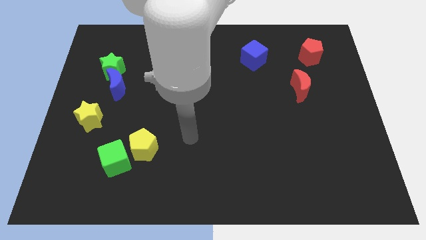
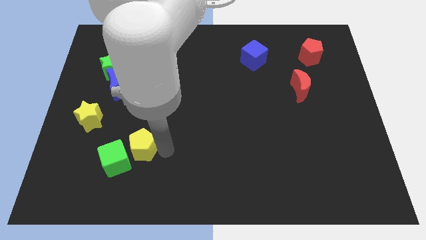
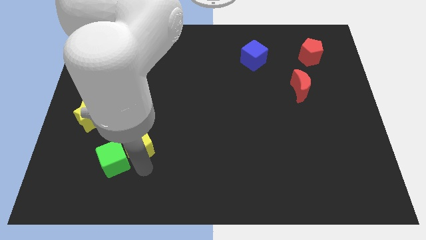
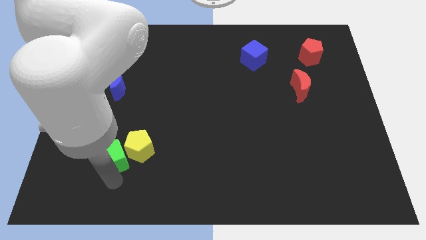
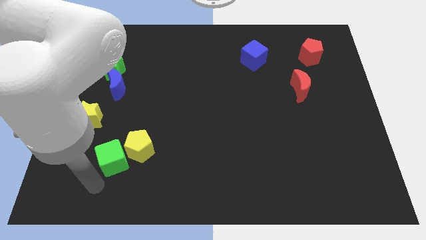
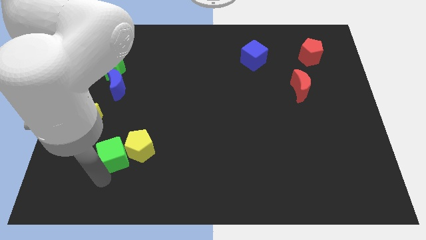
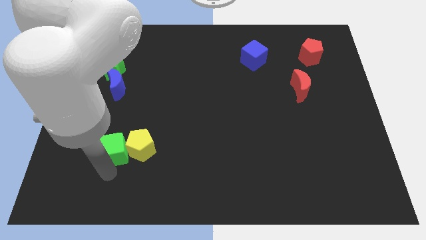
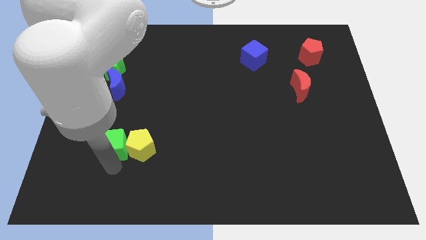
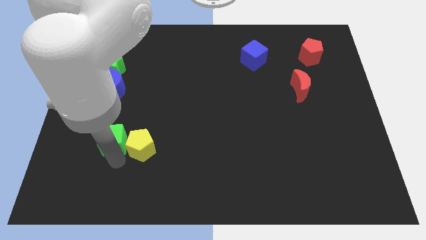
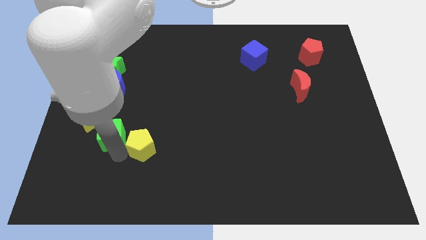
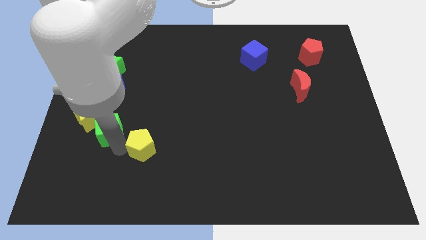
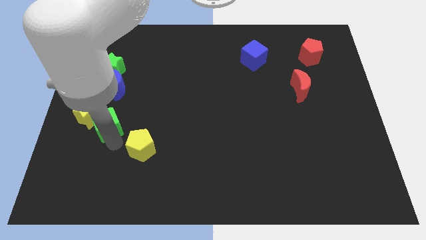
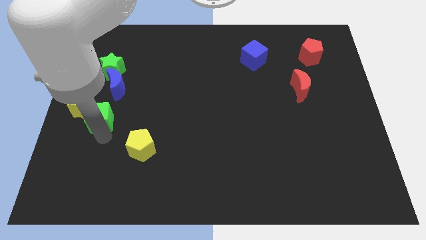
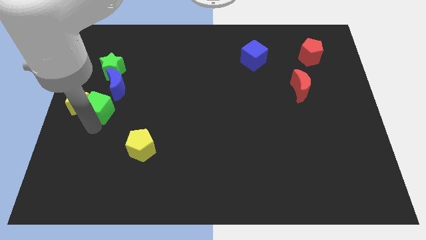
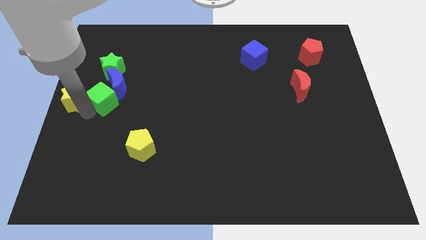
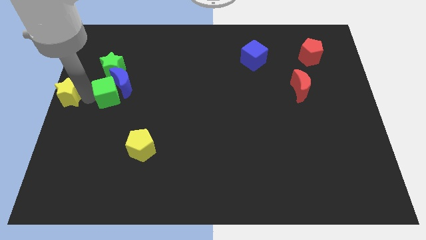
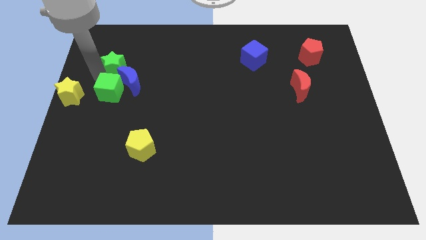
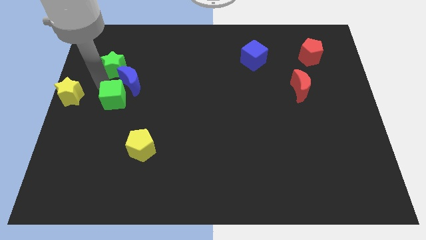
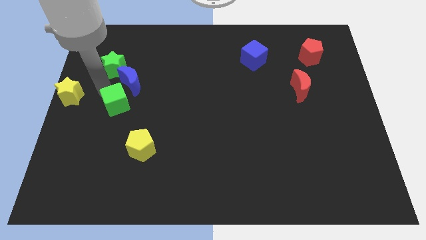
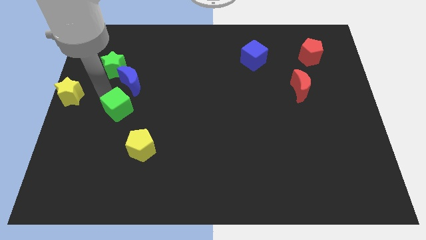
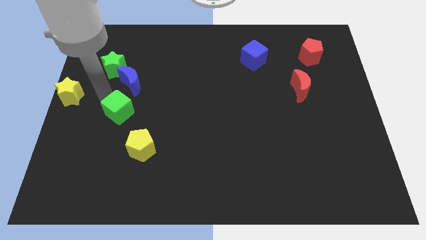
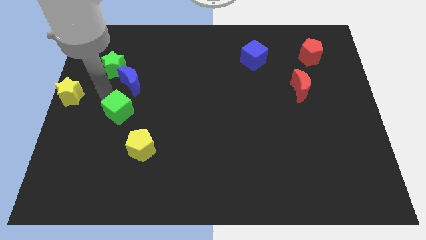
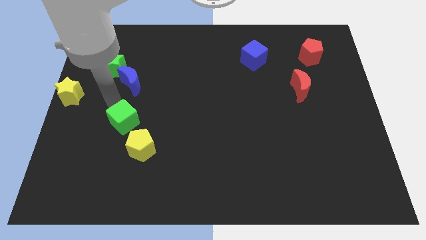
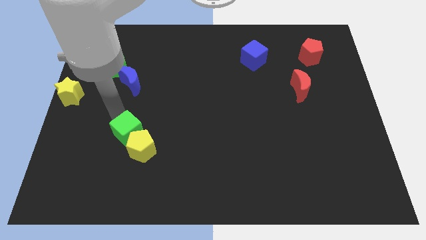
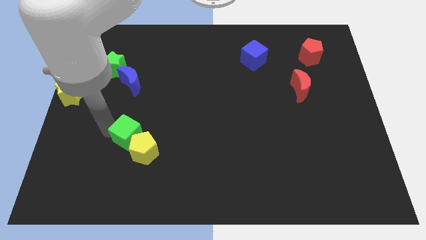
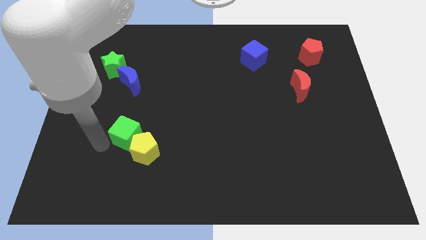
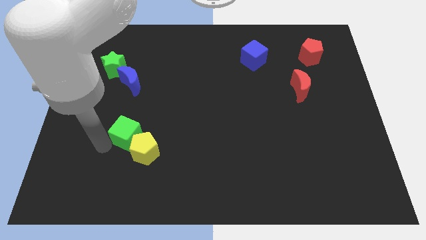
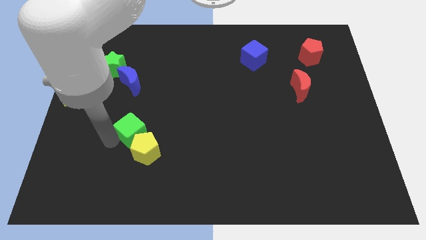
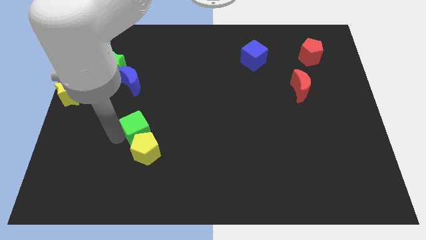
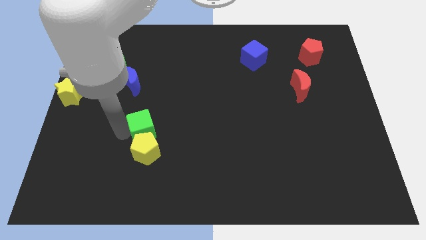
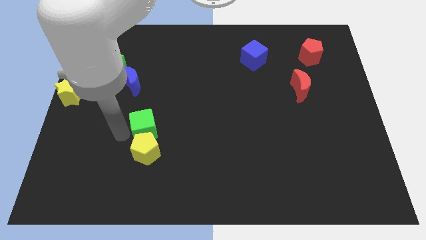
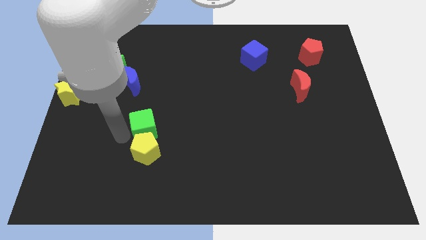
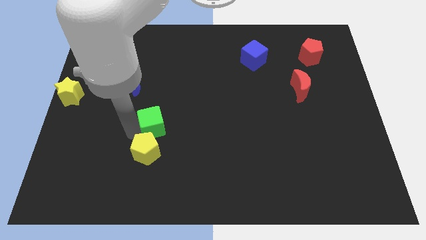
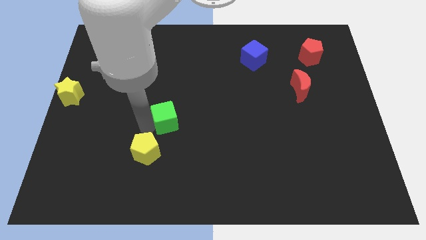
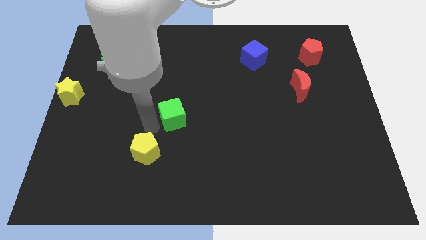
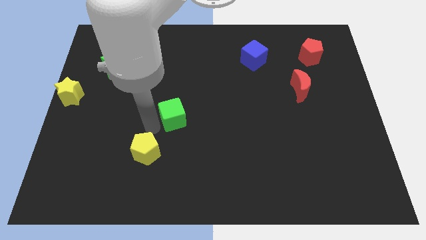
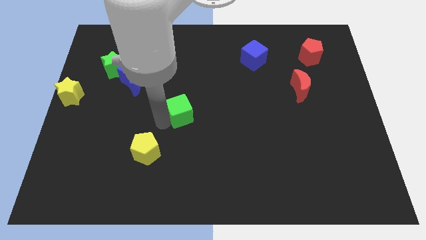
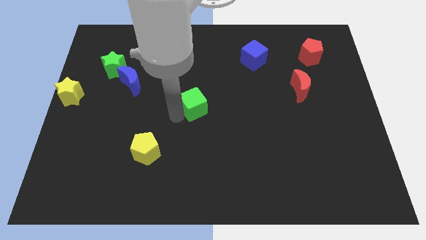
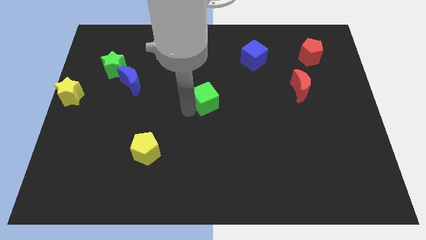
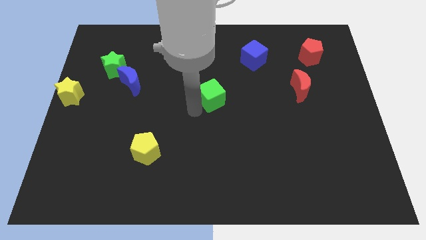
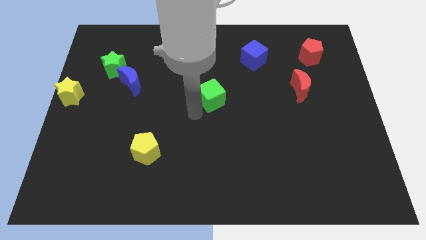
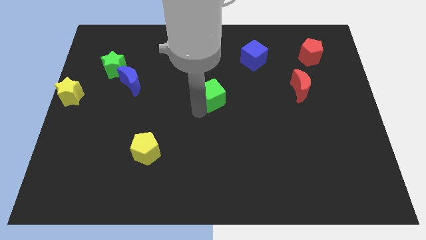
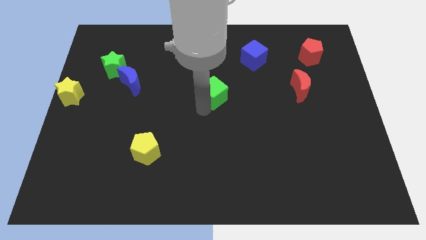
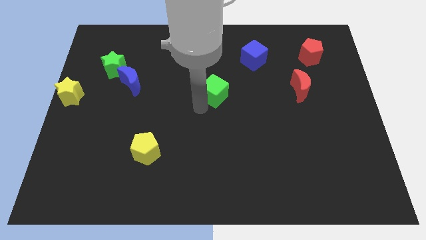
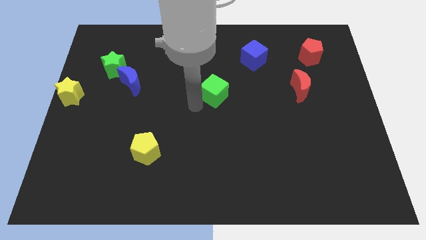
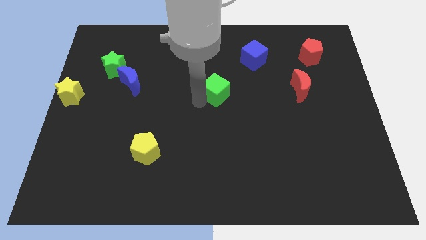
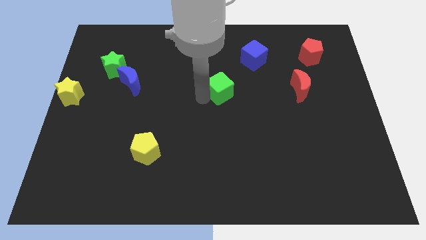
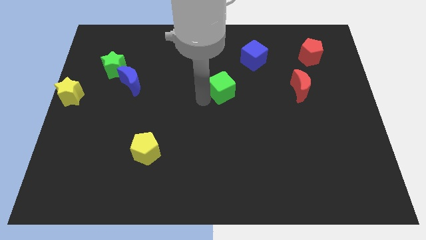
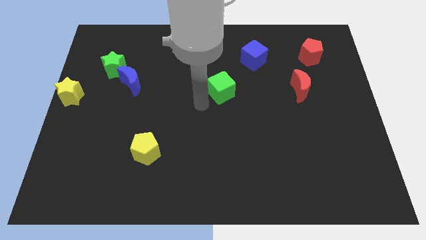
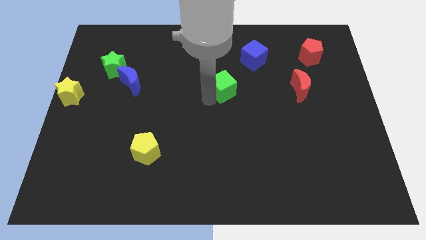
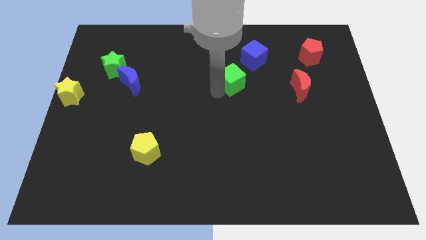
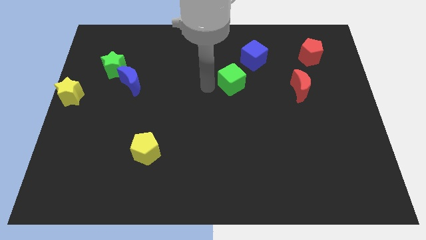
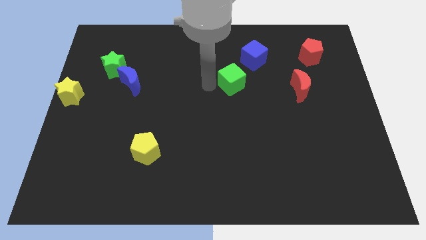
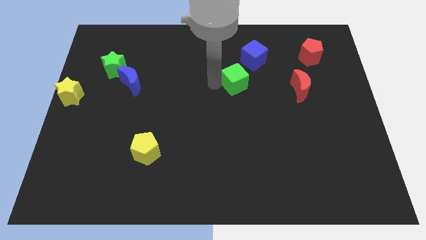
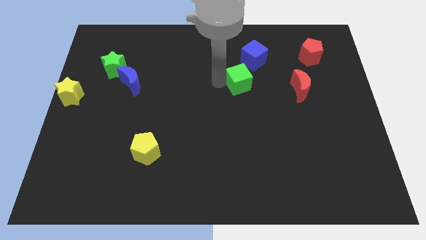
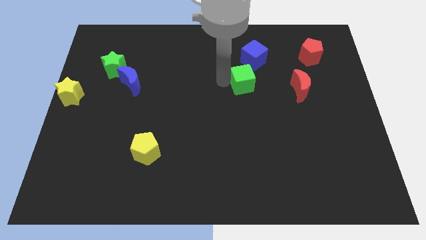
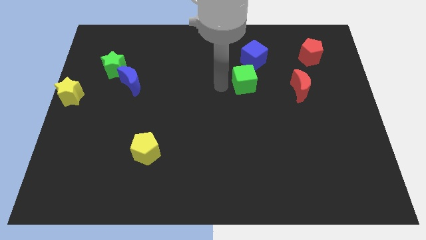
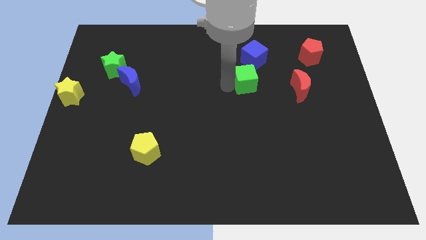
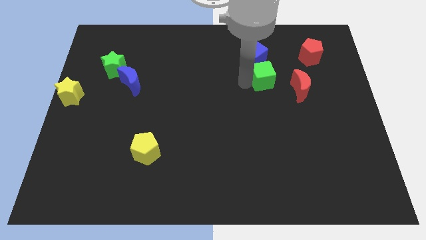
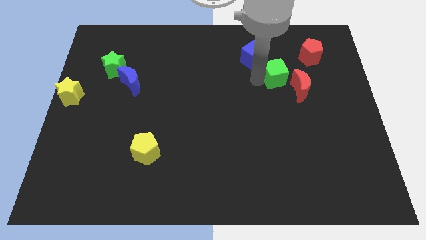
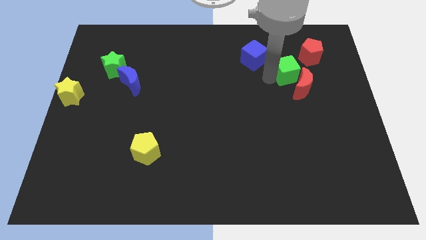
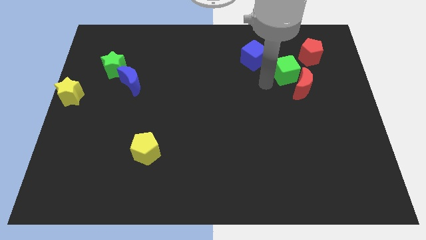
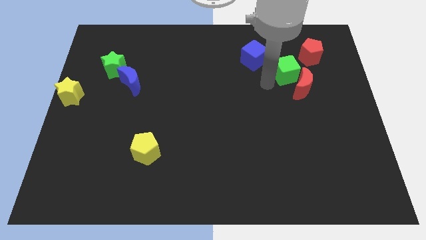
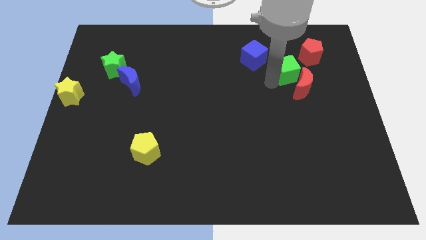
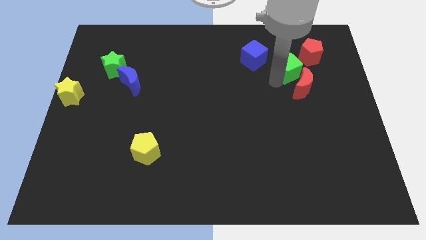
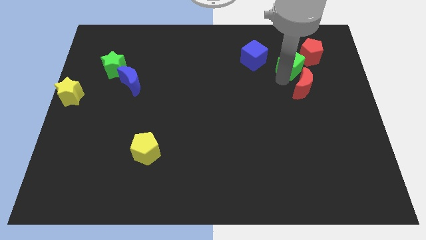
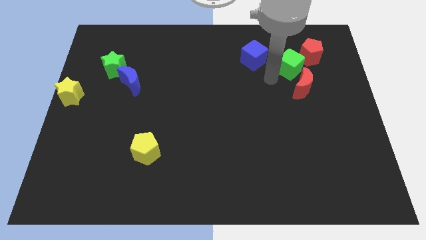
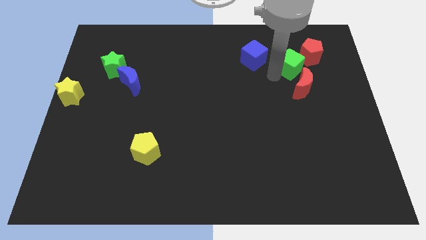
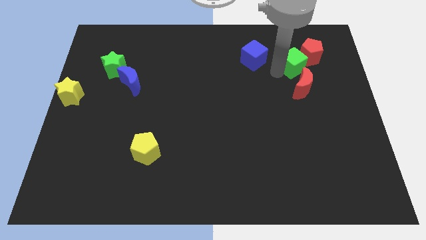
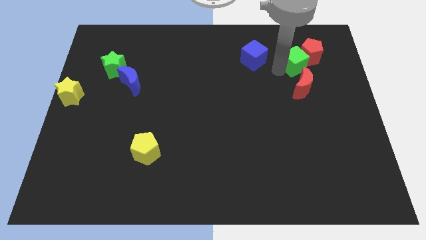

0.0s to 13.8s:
push the green cube next to the red pentagon
